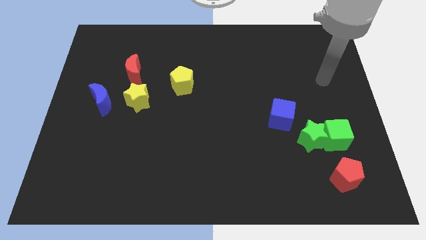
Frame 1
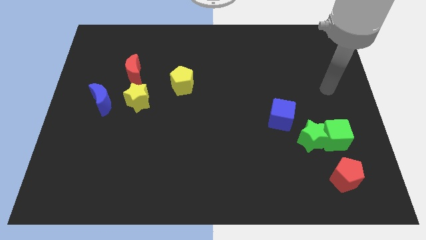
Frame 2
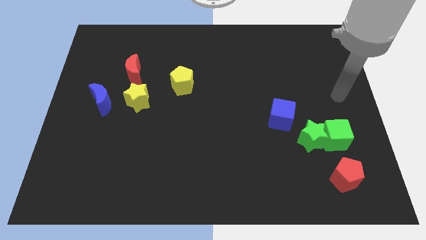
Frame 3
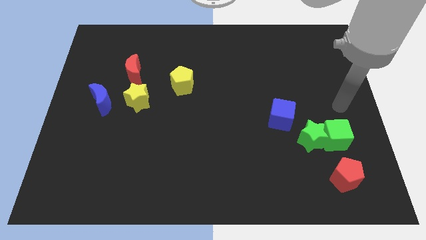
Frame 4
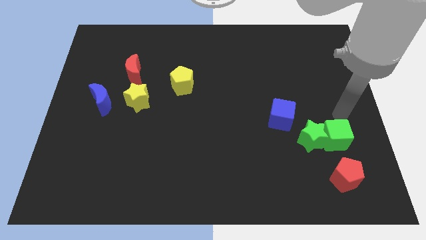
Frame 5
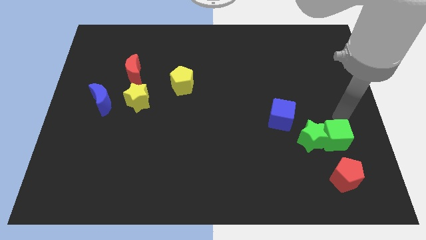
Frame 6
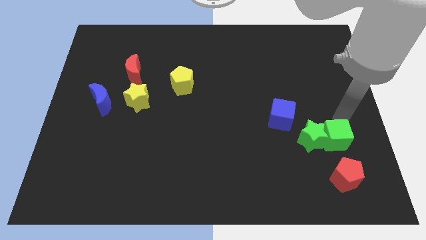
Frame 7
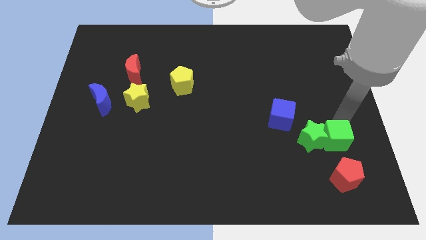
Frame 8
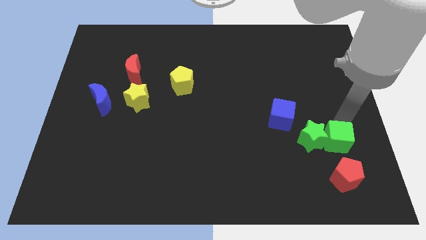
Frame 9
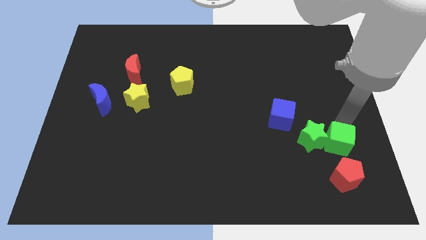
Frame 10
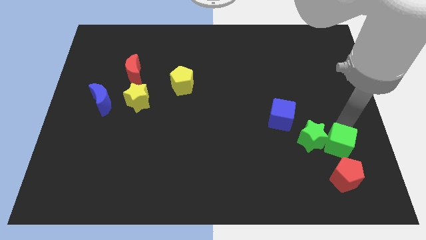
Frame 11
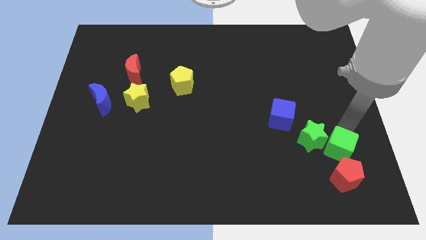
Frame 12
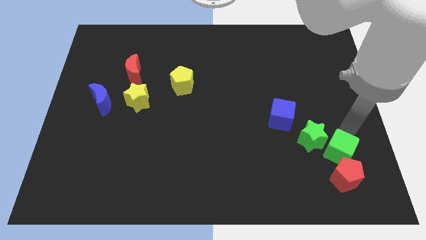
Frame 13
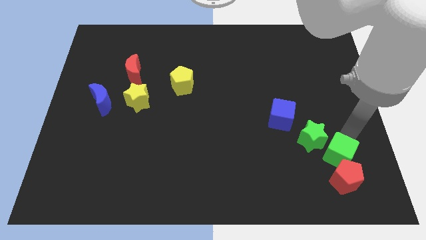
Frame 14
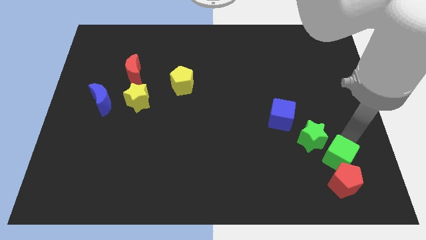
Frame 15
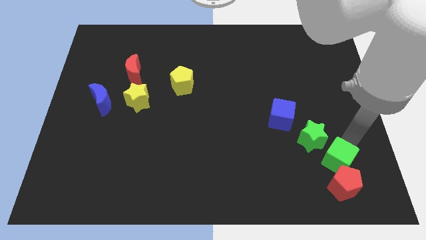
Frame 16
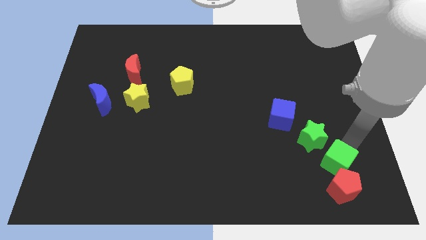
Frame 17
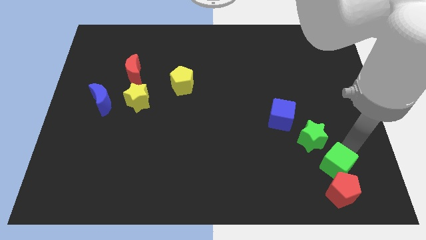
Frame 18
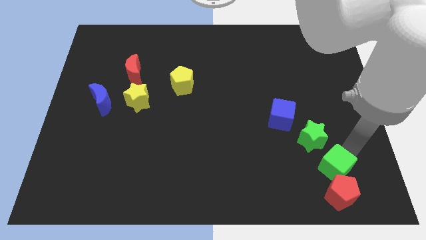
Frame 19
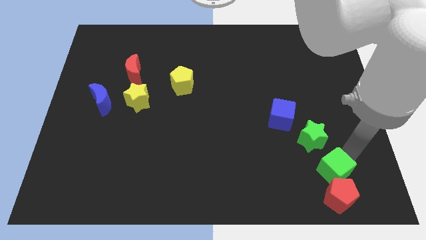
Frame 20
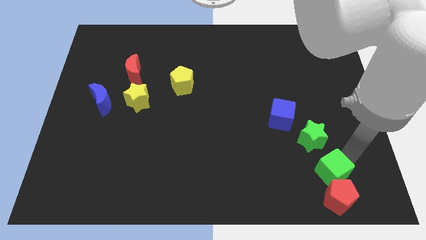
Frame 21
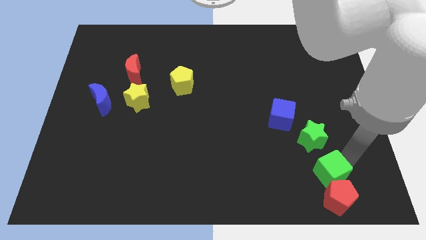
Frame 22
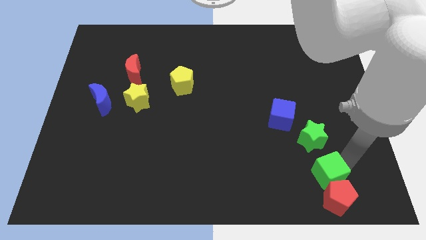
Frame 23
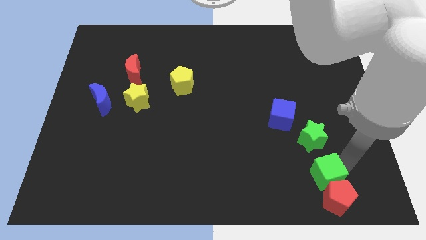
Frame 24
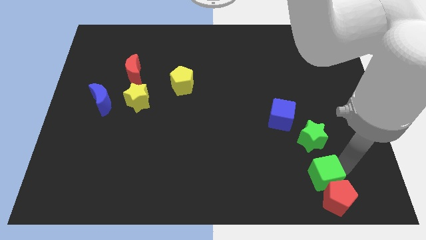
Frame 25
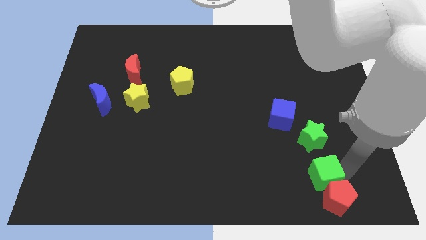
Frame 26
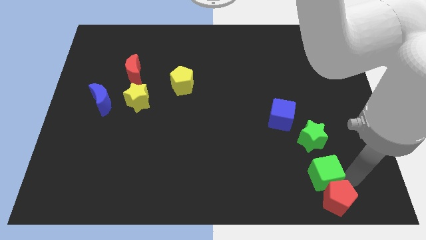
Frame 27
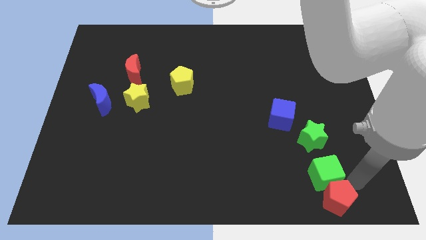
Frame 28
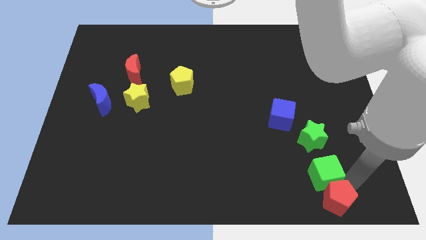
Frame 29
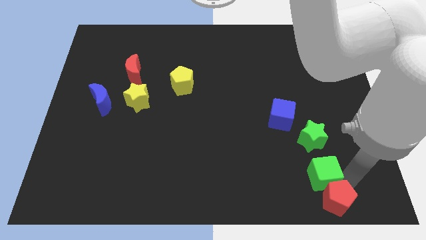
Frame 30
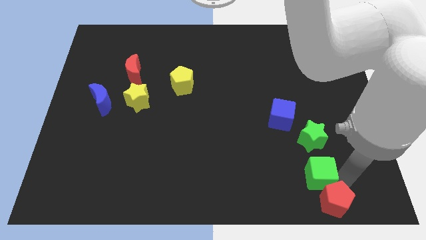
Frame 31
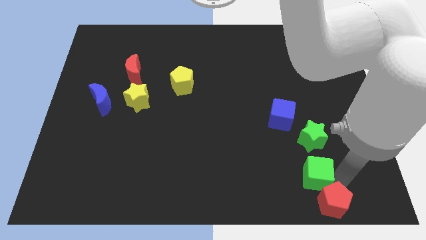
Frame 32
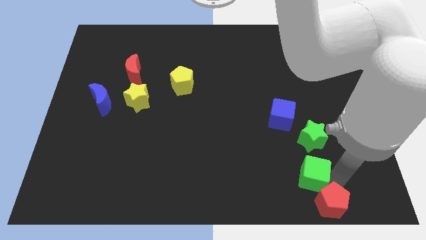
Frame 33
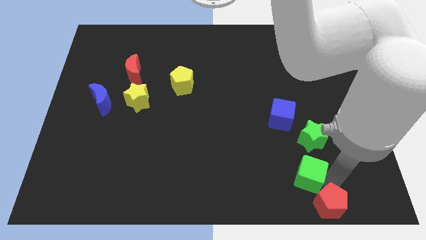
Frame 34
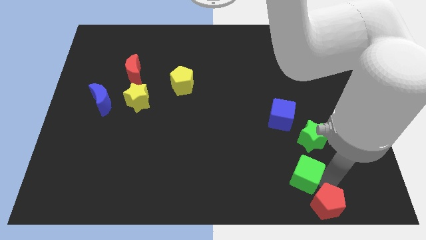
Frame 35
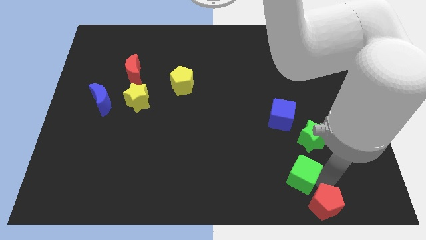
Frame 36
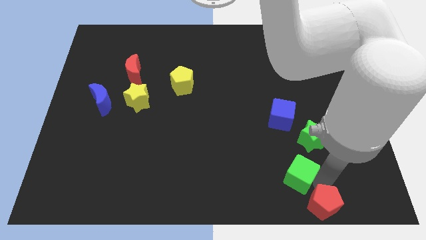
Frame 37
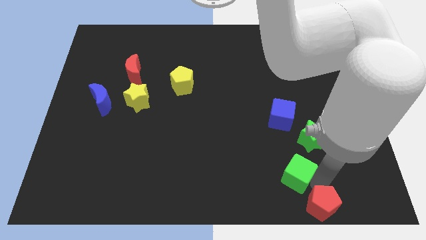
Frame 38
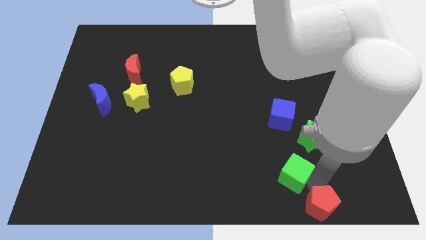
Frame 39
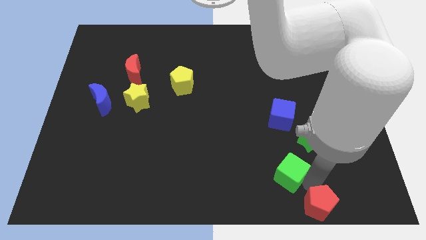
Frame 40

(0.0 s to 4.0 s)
slightly push the green cube to the left

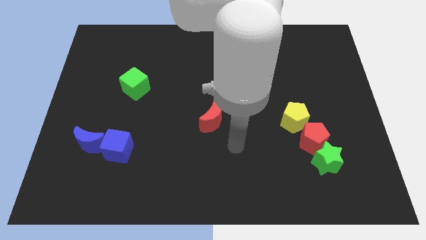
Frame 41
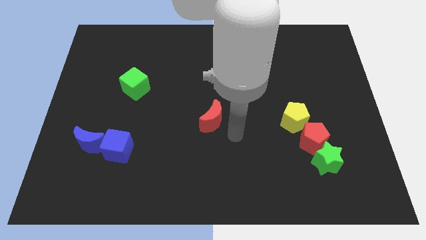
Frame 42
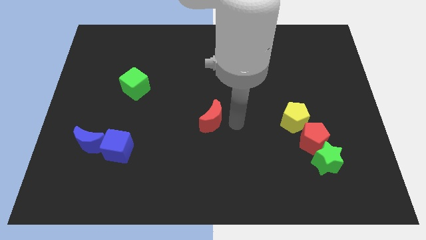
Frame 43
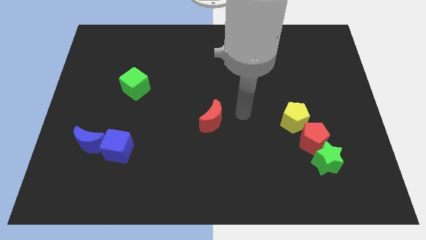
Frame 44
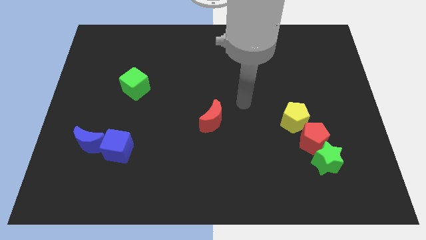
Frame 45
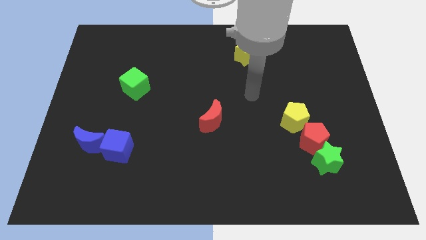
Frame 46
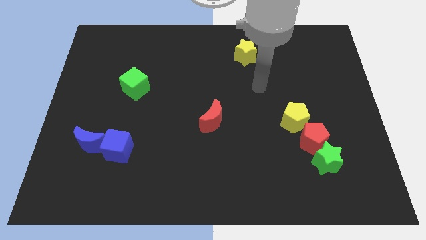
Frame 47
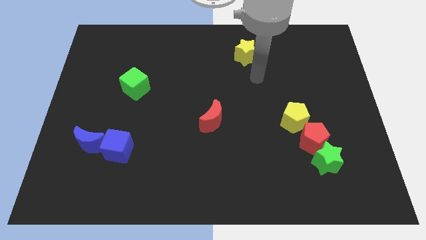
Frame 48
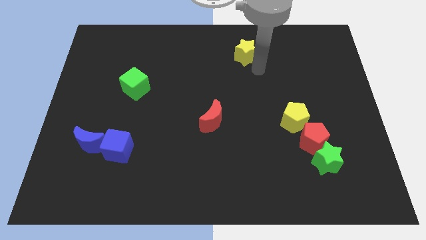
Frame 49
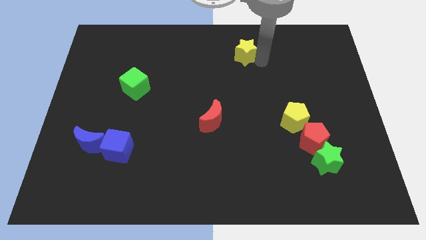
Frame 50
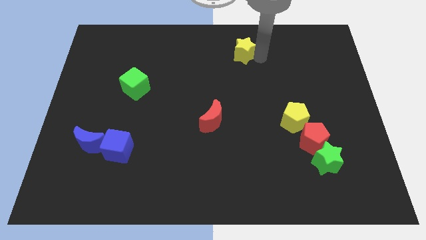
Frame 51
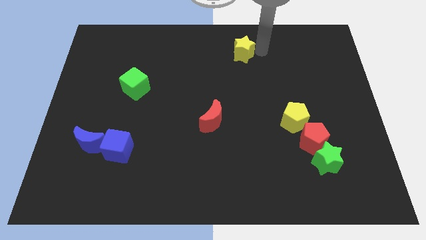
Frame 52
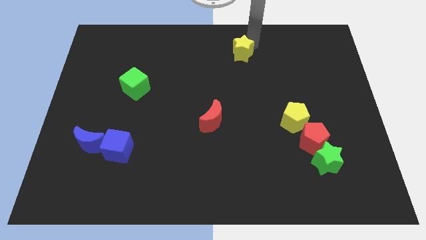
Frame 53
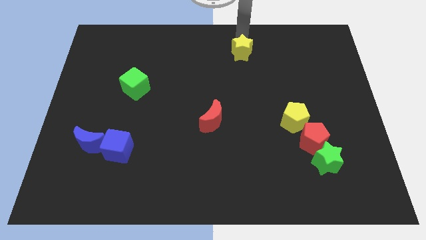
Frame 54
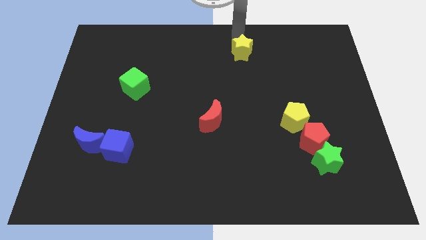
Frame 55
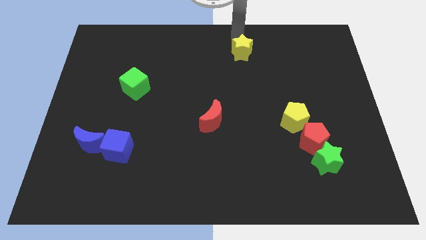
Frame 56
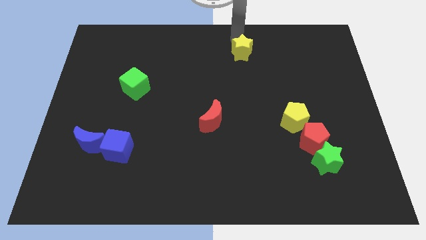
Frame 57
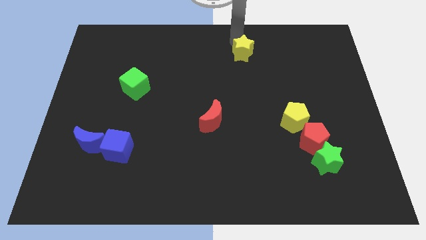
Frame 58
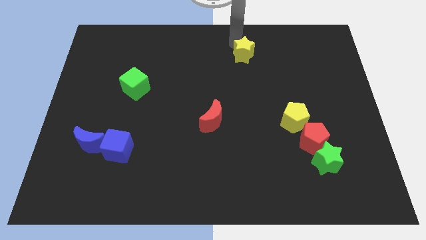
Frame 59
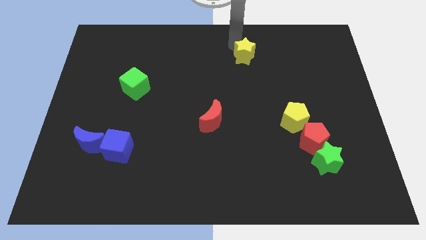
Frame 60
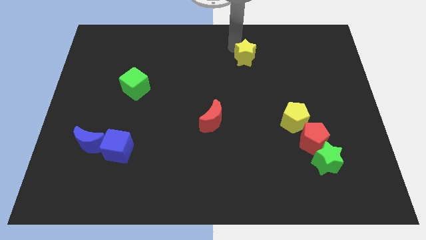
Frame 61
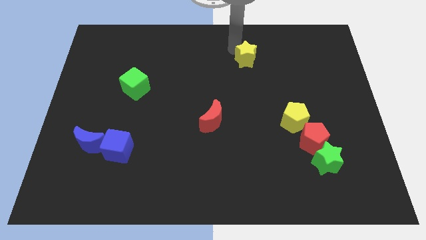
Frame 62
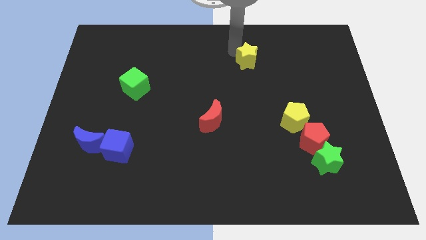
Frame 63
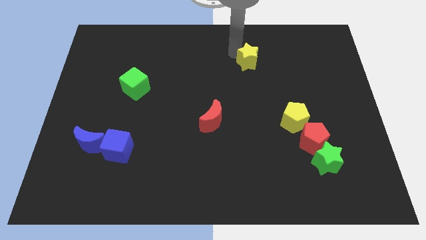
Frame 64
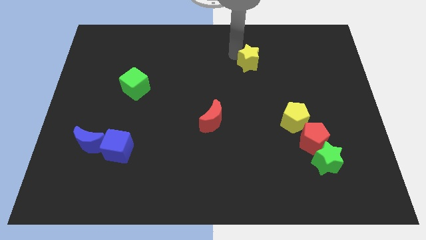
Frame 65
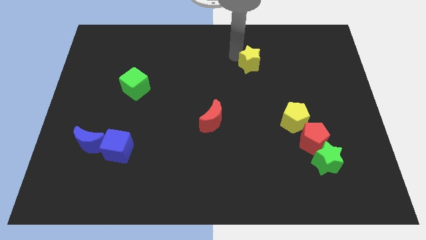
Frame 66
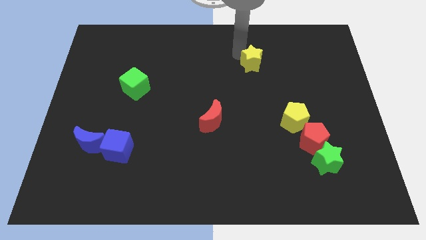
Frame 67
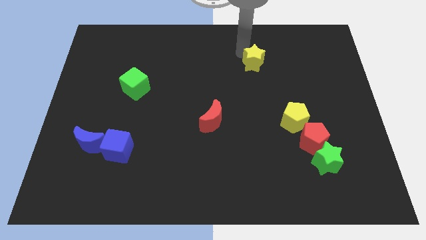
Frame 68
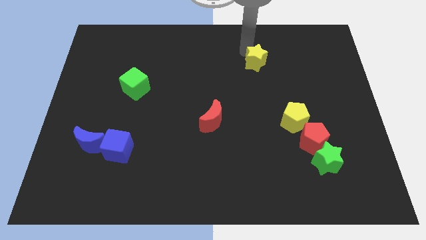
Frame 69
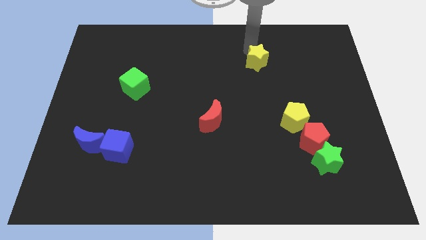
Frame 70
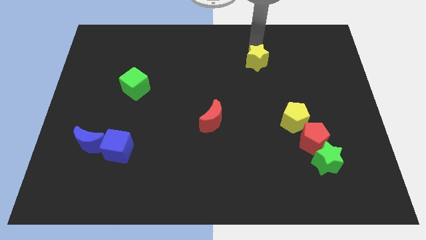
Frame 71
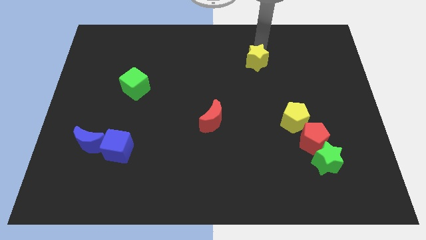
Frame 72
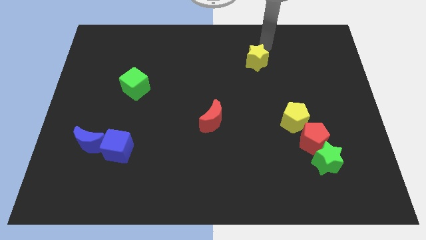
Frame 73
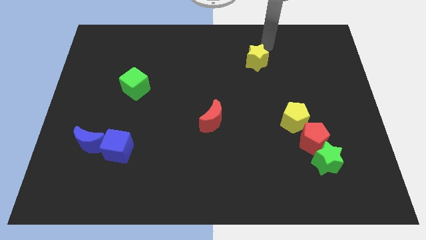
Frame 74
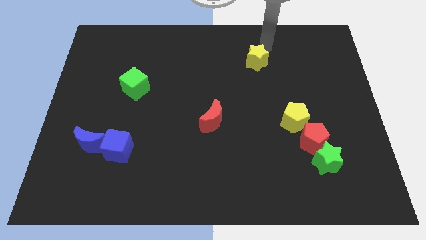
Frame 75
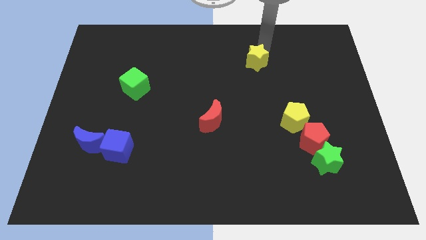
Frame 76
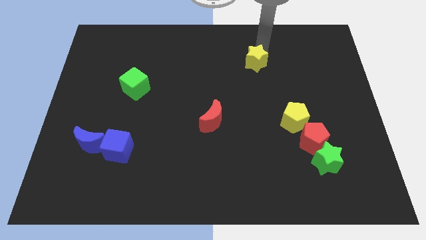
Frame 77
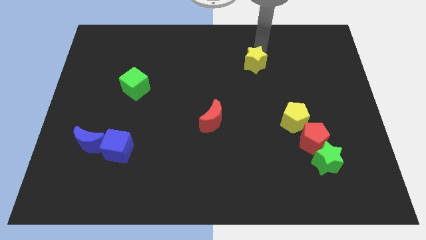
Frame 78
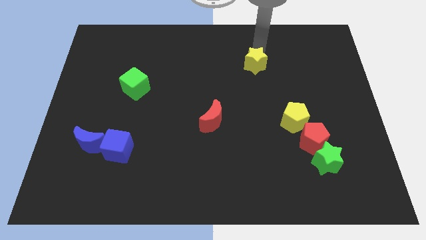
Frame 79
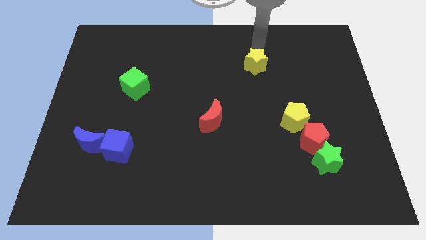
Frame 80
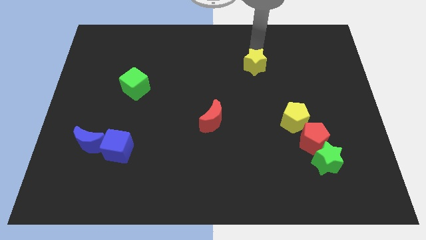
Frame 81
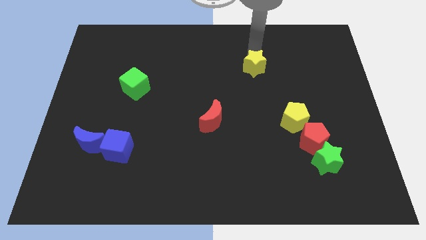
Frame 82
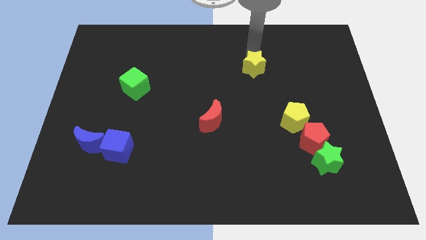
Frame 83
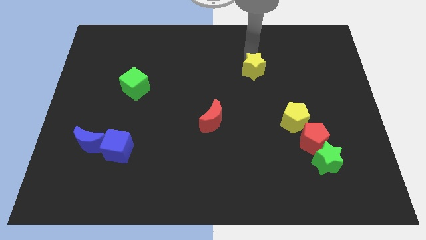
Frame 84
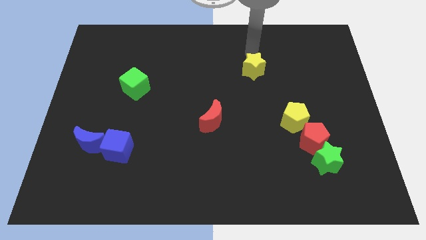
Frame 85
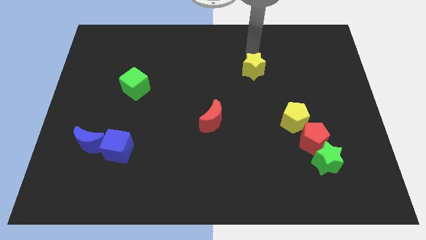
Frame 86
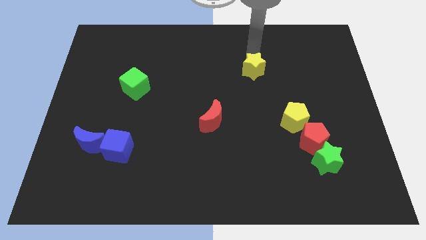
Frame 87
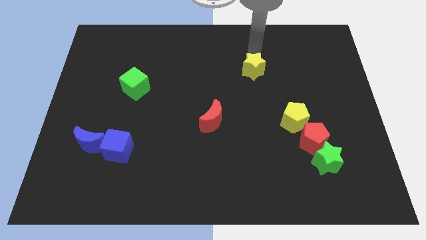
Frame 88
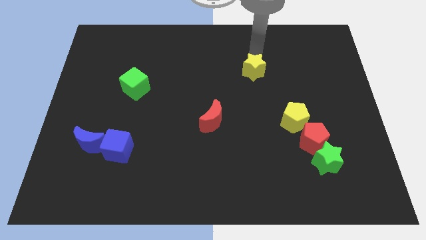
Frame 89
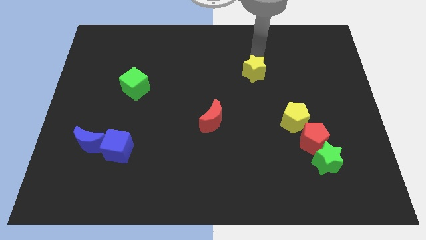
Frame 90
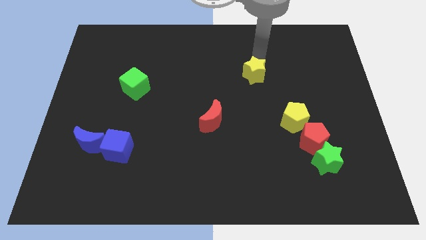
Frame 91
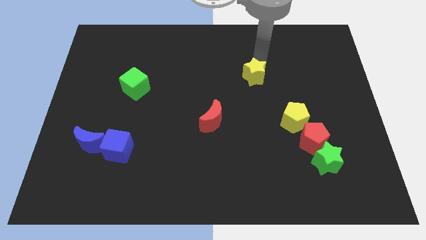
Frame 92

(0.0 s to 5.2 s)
slide the yellow star down slightly
